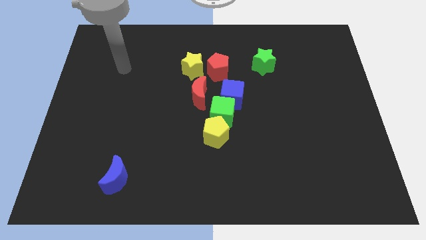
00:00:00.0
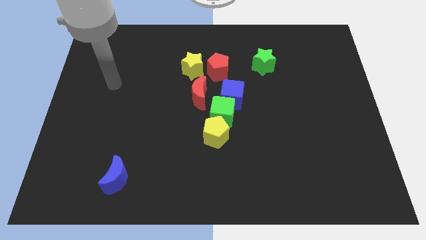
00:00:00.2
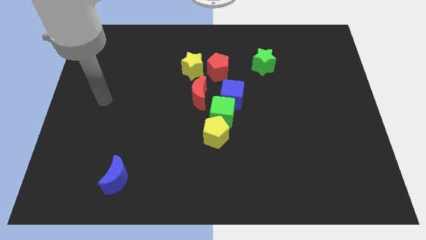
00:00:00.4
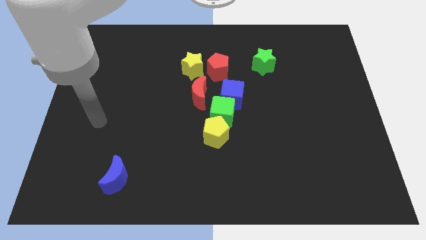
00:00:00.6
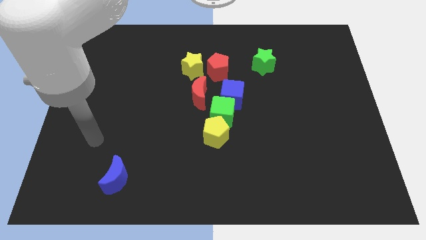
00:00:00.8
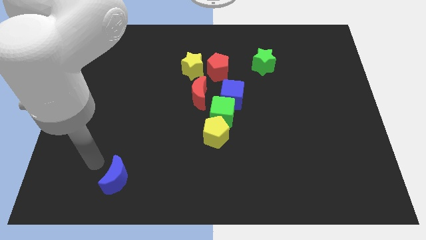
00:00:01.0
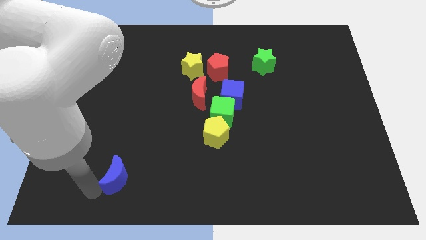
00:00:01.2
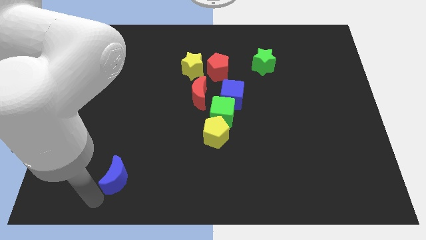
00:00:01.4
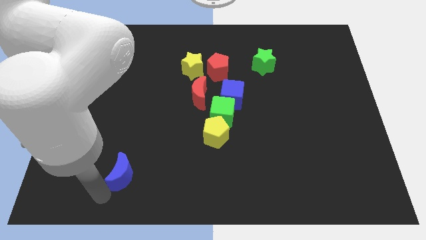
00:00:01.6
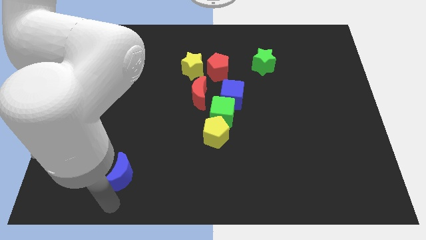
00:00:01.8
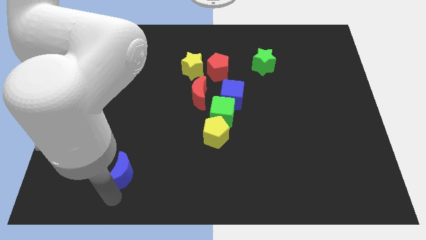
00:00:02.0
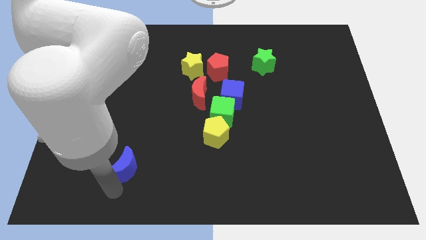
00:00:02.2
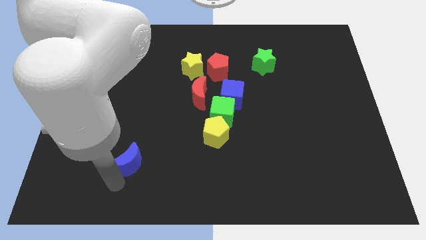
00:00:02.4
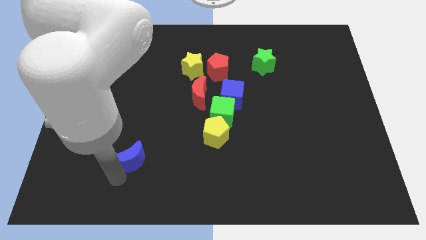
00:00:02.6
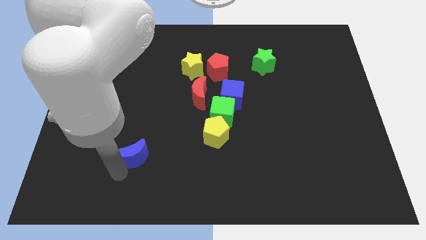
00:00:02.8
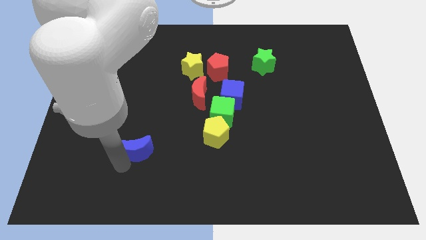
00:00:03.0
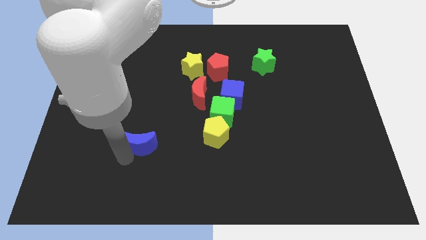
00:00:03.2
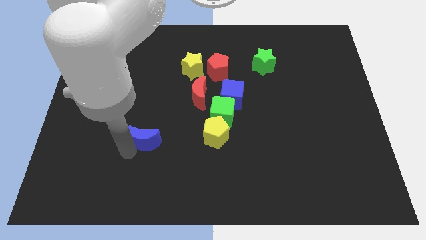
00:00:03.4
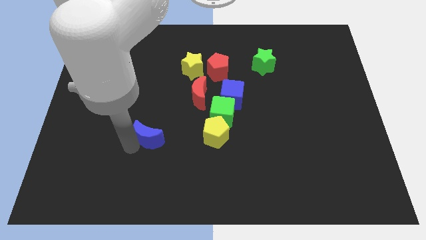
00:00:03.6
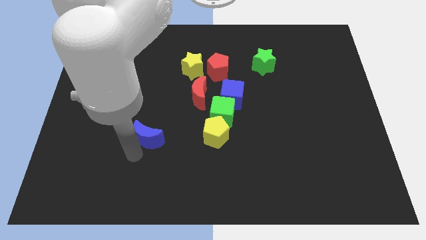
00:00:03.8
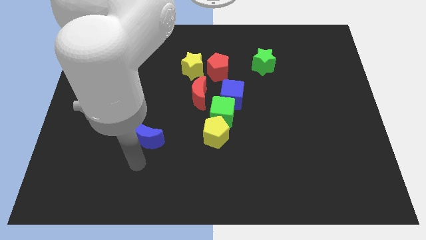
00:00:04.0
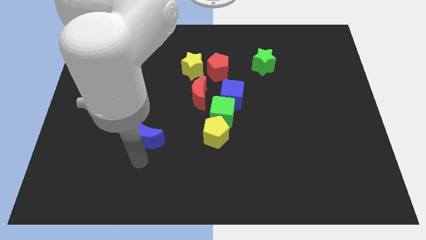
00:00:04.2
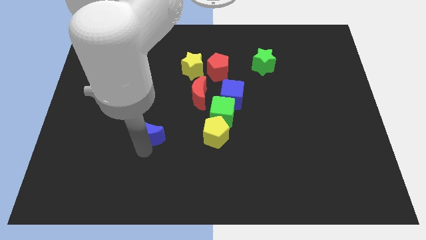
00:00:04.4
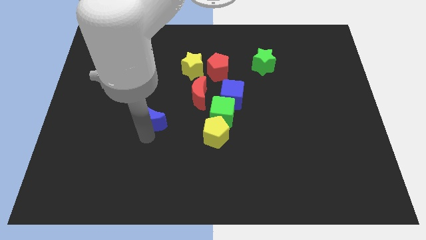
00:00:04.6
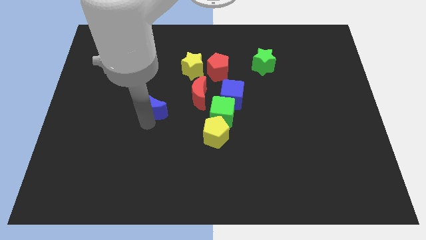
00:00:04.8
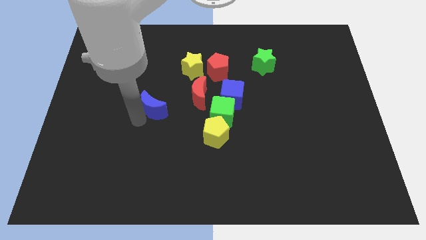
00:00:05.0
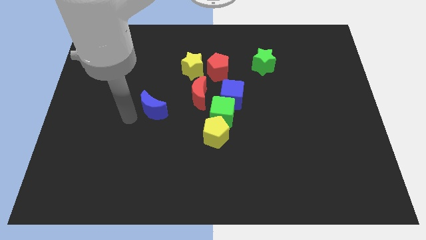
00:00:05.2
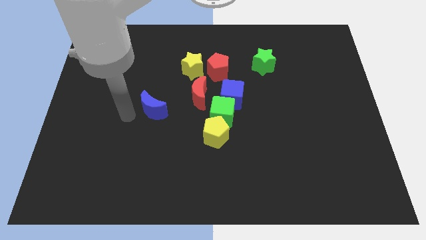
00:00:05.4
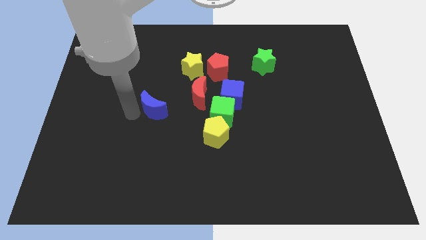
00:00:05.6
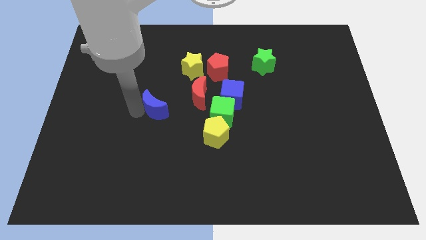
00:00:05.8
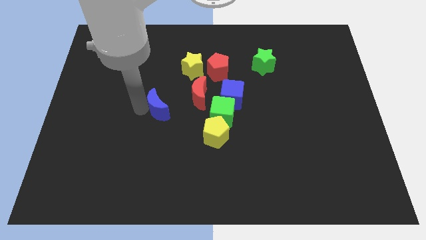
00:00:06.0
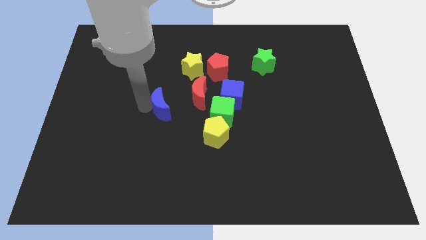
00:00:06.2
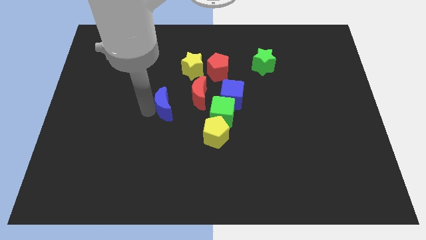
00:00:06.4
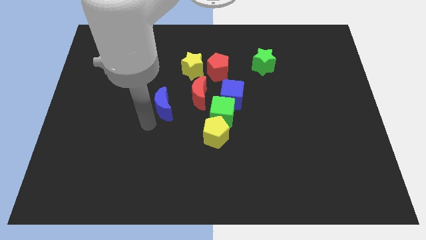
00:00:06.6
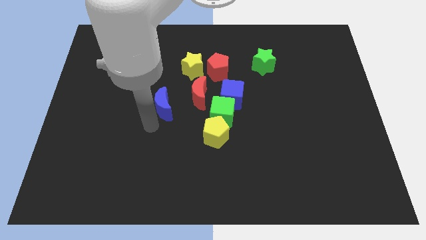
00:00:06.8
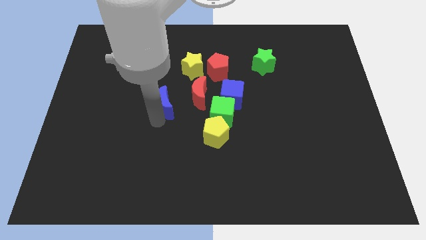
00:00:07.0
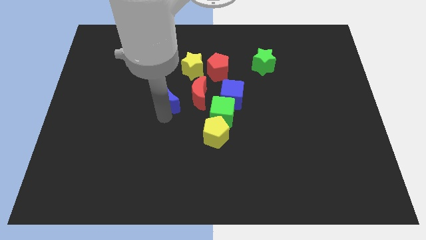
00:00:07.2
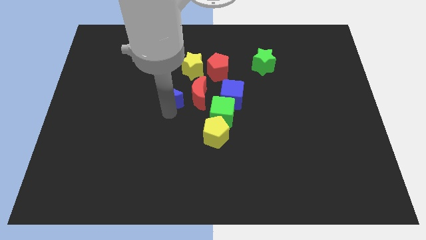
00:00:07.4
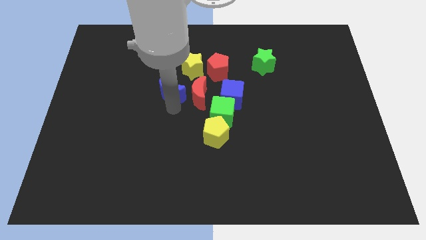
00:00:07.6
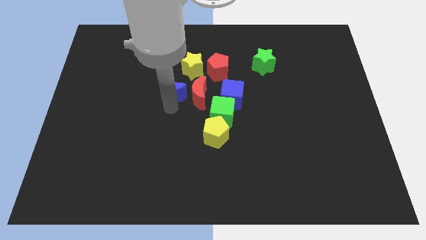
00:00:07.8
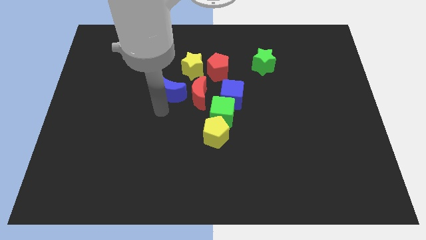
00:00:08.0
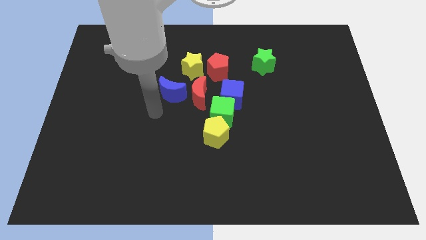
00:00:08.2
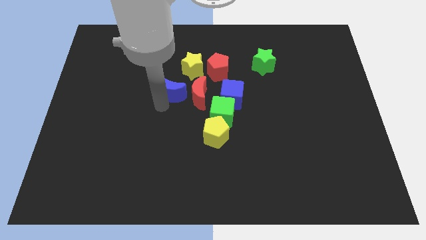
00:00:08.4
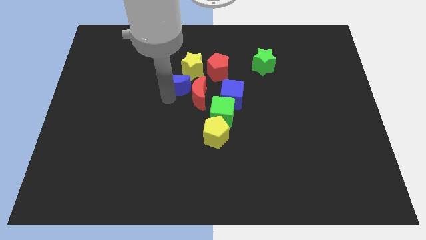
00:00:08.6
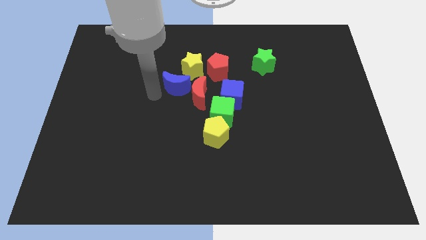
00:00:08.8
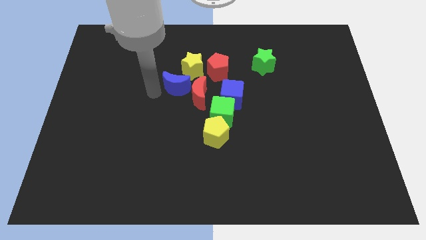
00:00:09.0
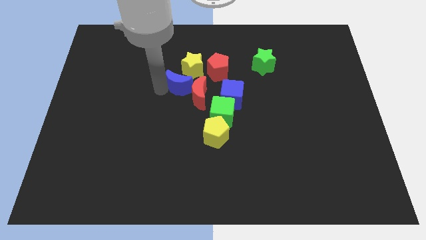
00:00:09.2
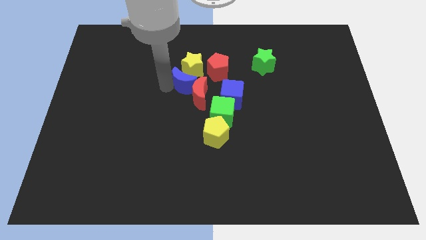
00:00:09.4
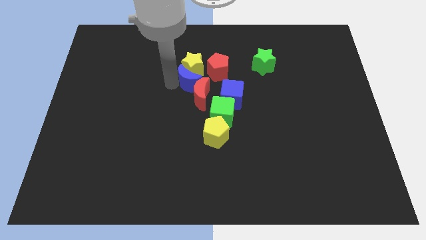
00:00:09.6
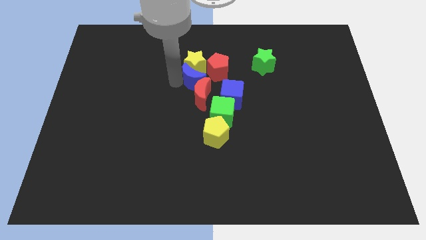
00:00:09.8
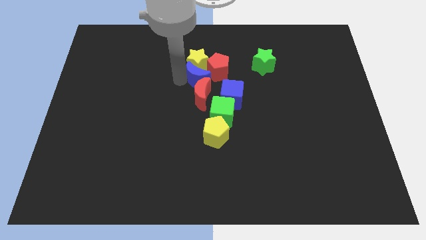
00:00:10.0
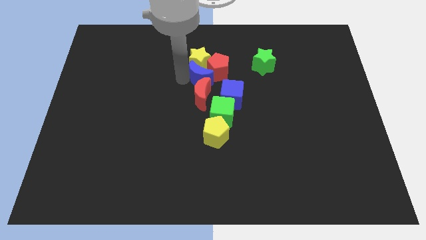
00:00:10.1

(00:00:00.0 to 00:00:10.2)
move the blue moon close to the red pentagon

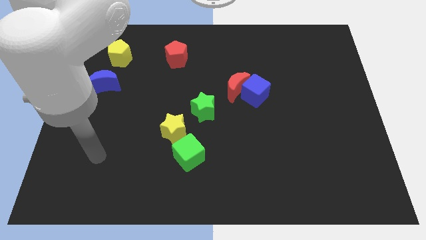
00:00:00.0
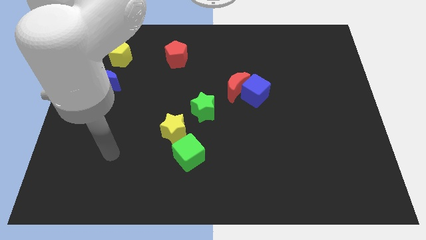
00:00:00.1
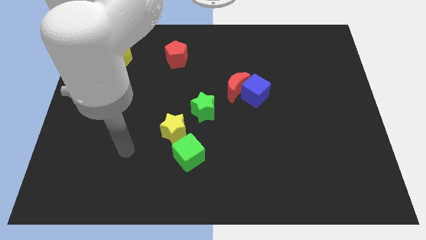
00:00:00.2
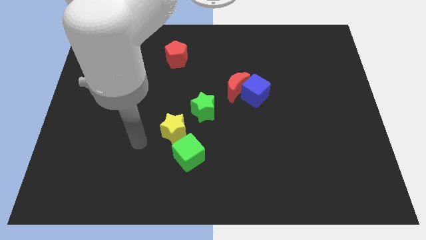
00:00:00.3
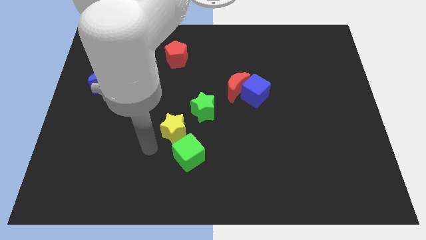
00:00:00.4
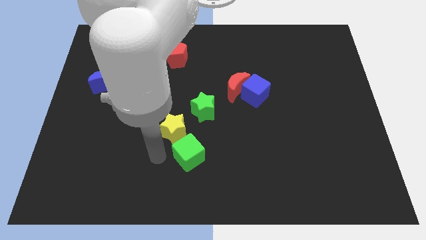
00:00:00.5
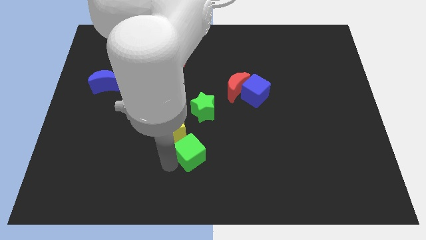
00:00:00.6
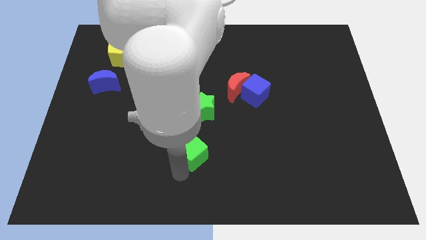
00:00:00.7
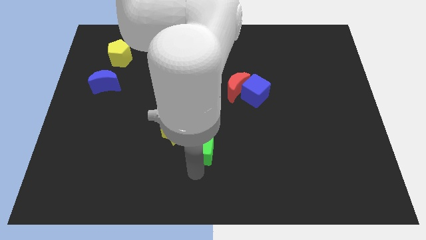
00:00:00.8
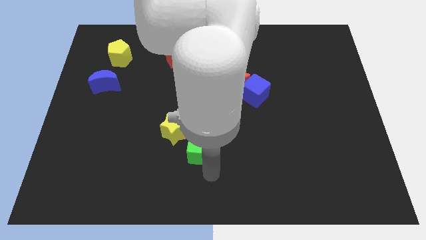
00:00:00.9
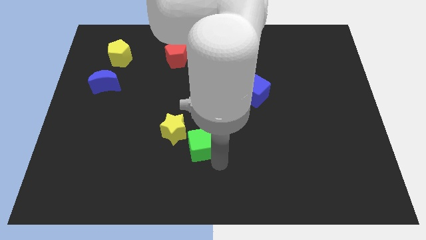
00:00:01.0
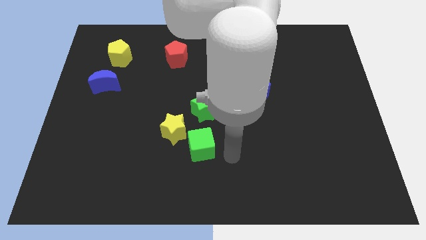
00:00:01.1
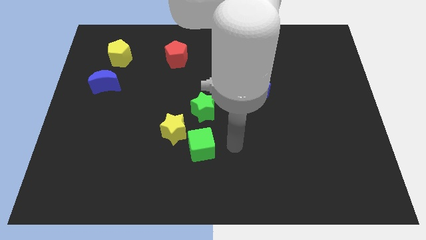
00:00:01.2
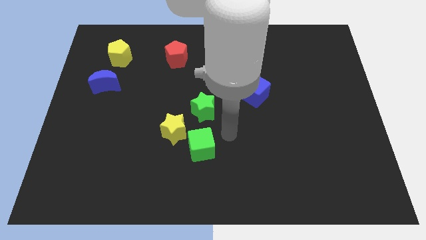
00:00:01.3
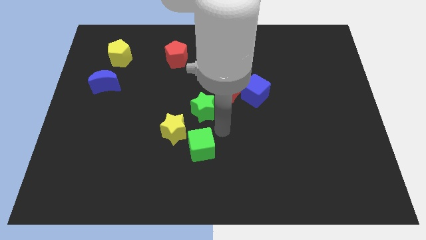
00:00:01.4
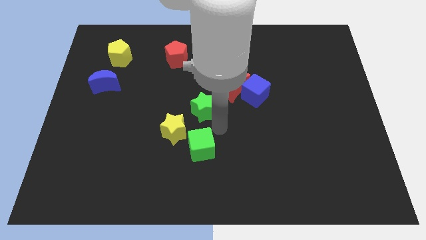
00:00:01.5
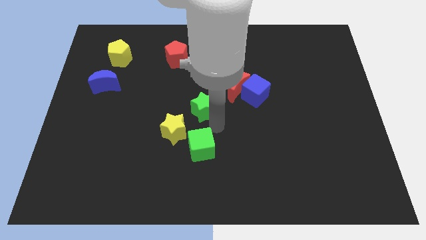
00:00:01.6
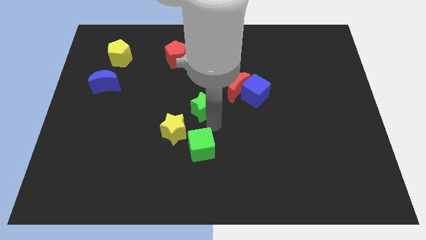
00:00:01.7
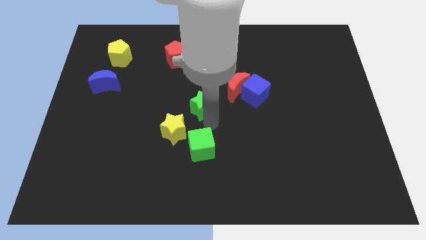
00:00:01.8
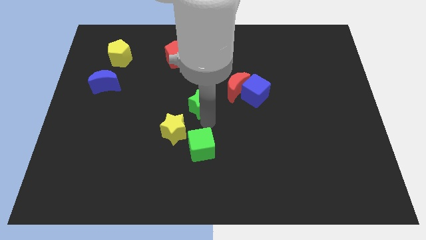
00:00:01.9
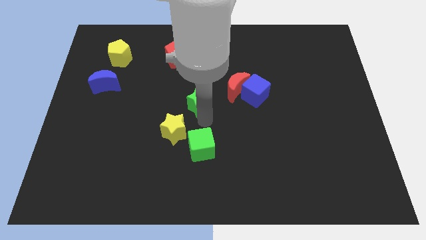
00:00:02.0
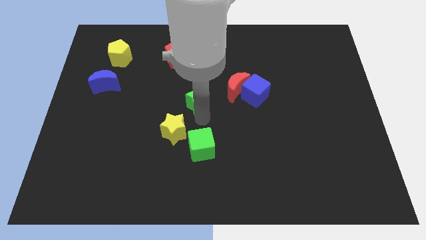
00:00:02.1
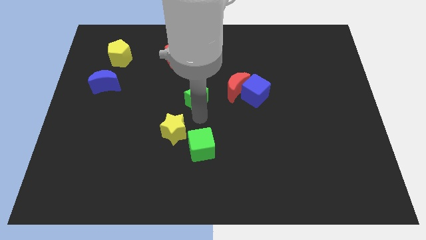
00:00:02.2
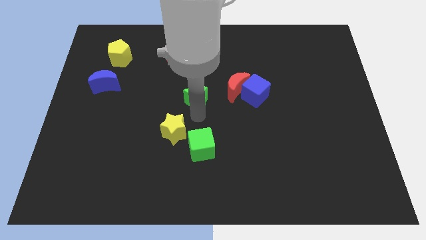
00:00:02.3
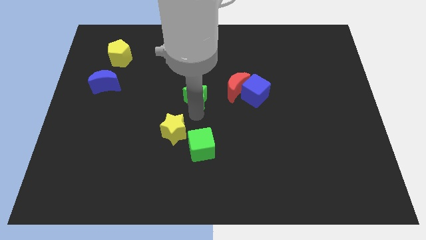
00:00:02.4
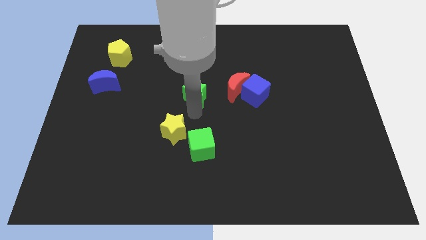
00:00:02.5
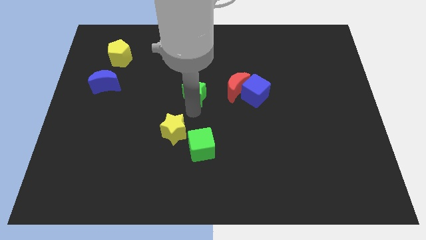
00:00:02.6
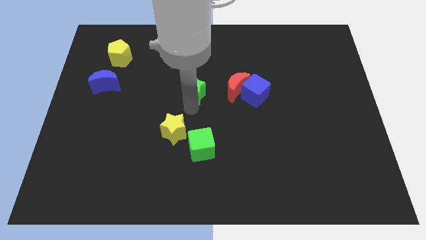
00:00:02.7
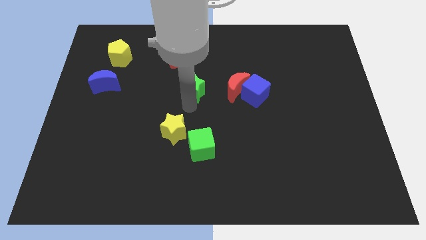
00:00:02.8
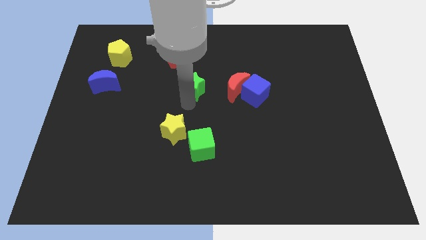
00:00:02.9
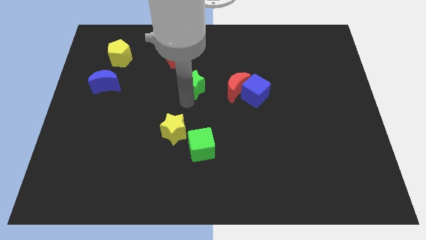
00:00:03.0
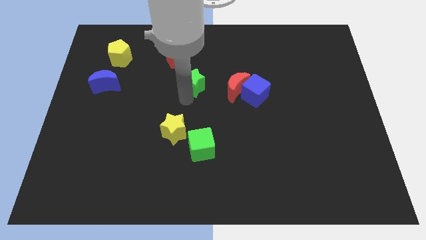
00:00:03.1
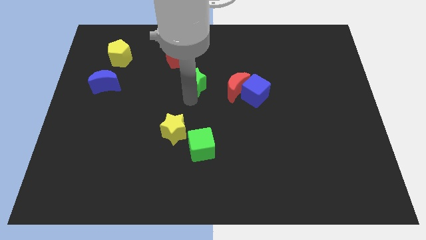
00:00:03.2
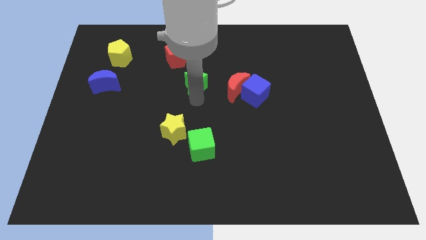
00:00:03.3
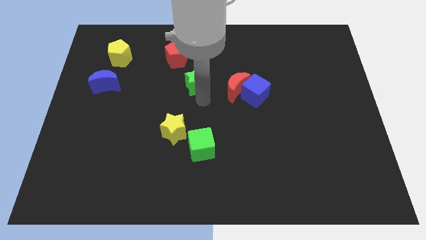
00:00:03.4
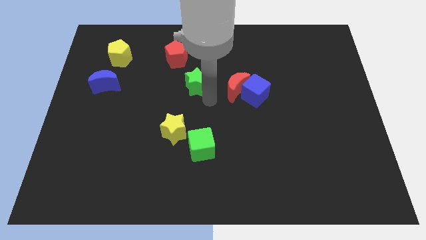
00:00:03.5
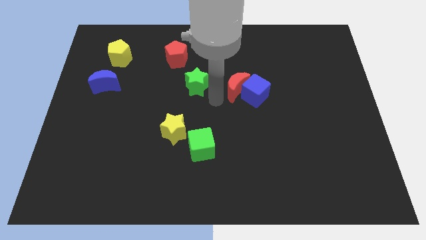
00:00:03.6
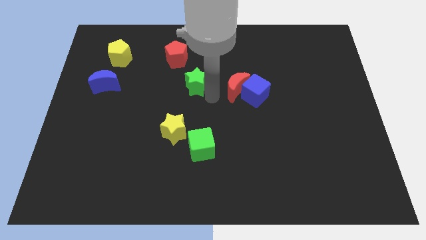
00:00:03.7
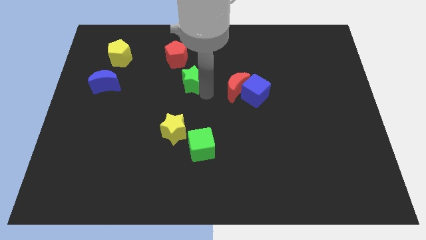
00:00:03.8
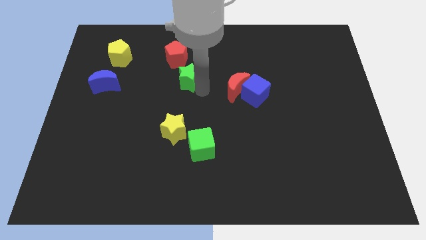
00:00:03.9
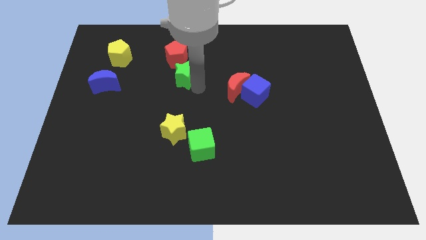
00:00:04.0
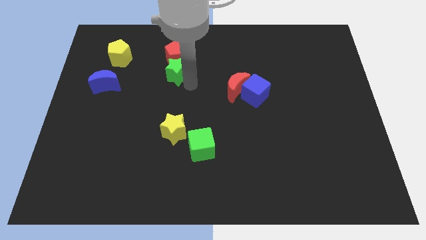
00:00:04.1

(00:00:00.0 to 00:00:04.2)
slide the green star close to the red pentagon
